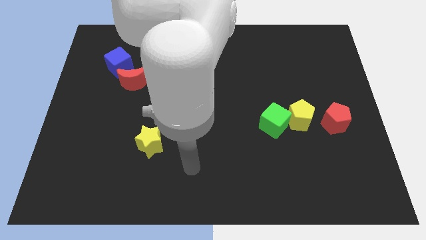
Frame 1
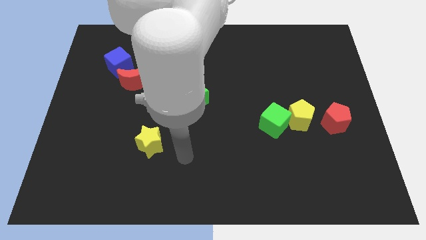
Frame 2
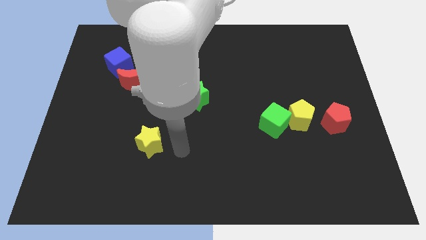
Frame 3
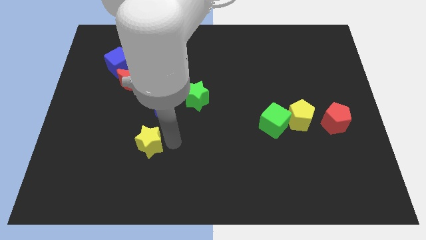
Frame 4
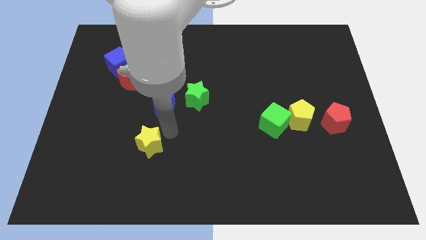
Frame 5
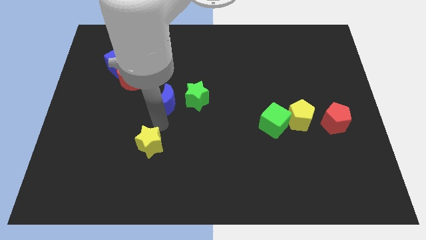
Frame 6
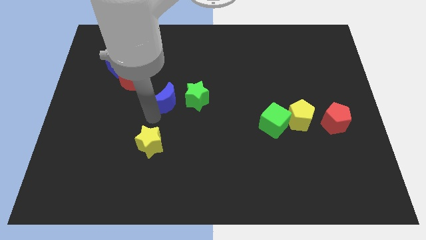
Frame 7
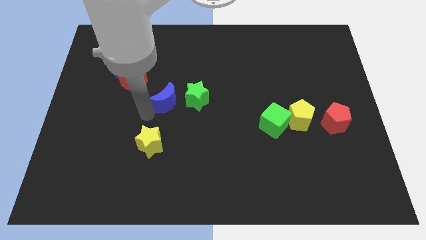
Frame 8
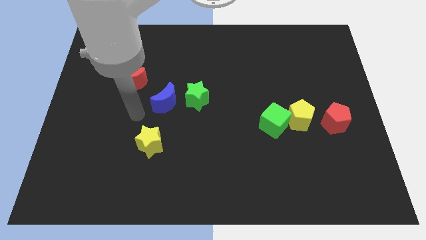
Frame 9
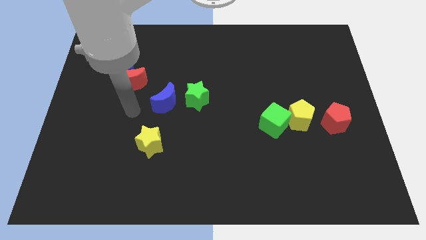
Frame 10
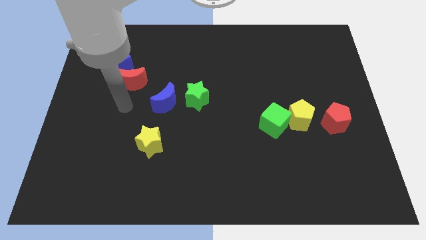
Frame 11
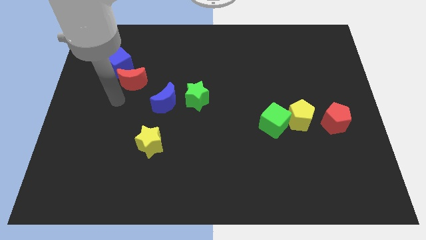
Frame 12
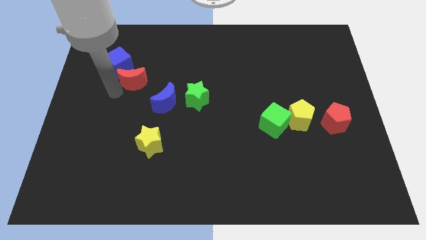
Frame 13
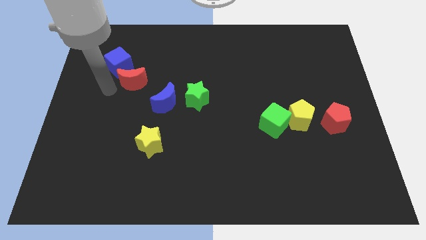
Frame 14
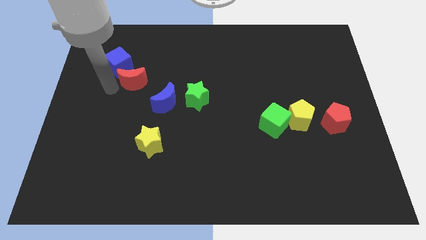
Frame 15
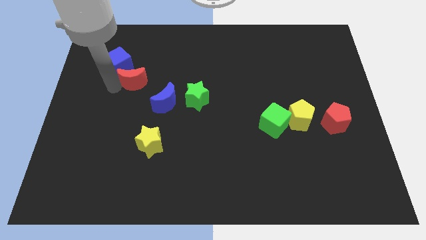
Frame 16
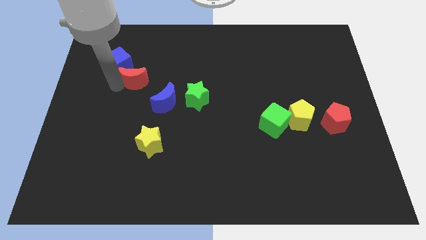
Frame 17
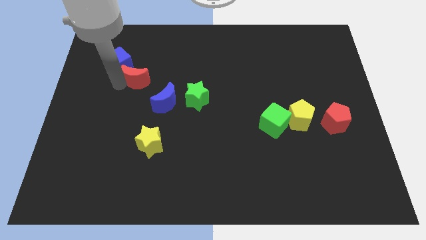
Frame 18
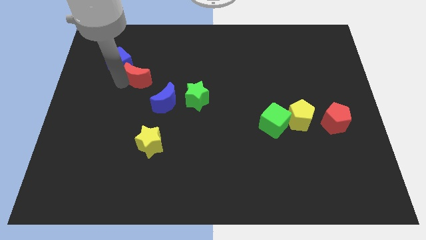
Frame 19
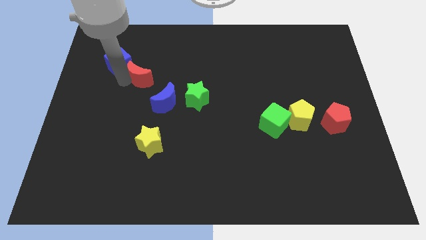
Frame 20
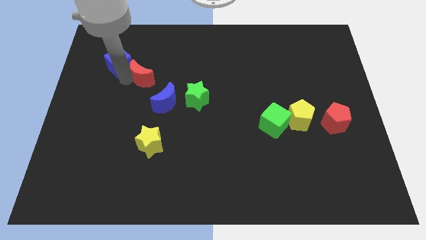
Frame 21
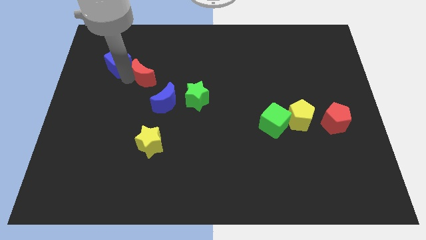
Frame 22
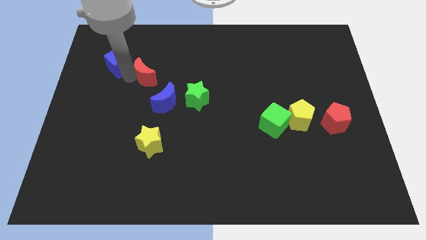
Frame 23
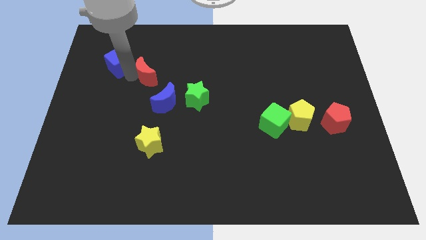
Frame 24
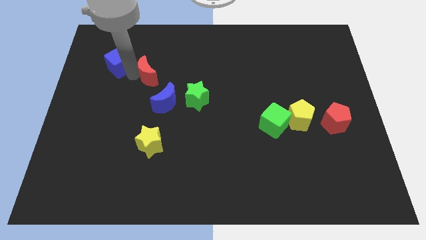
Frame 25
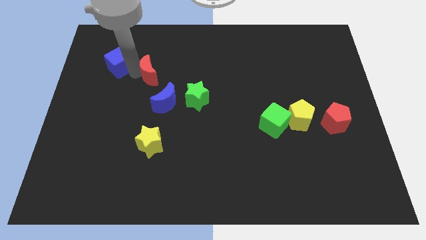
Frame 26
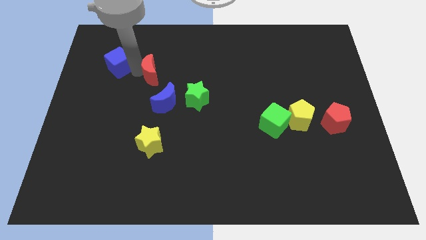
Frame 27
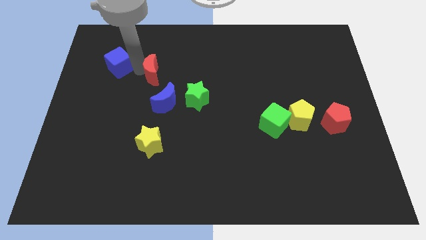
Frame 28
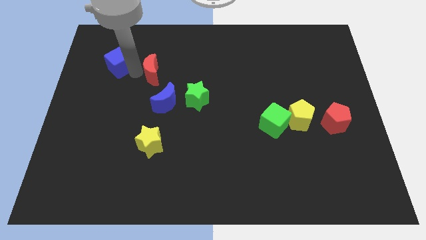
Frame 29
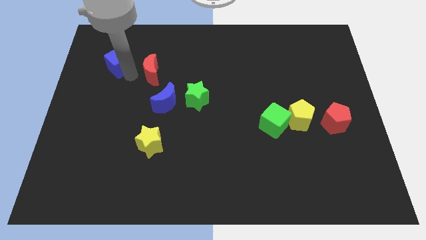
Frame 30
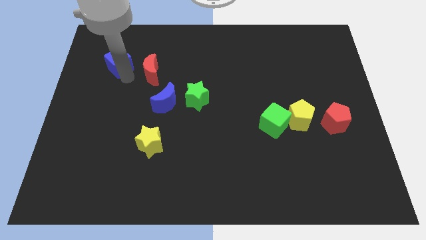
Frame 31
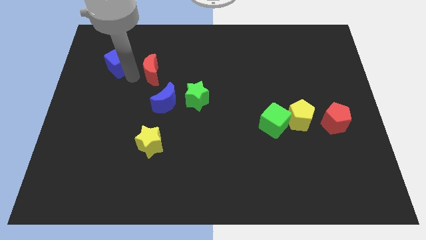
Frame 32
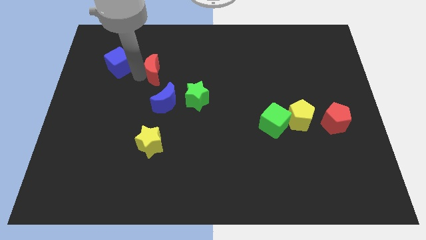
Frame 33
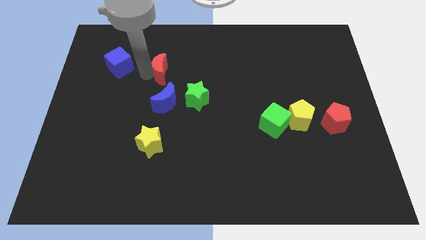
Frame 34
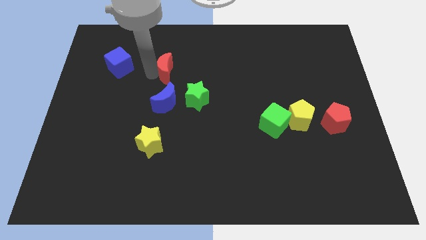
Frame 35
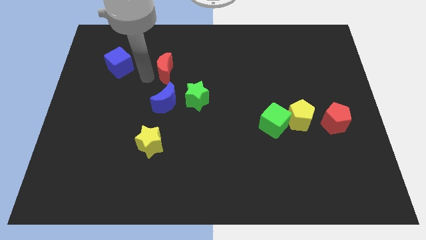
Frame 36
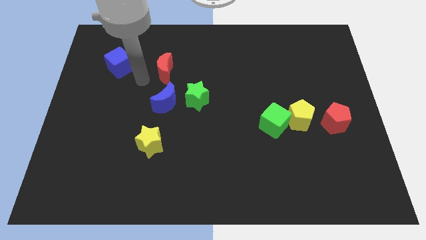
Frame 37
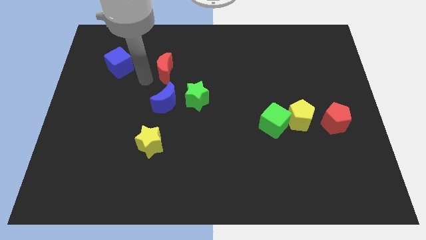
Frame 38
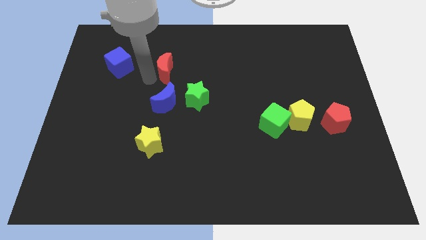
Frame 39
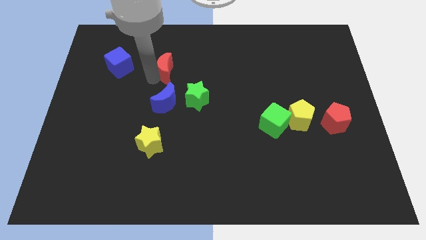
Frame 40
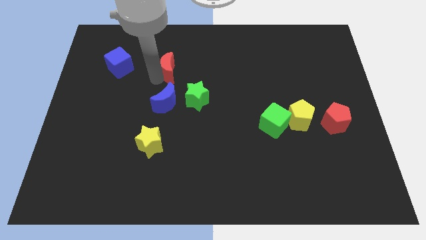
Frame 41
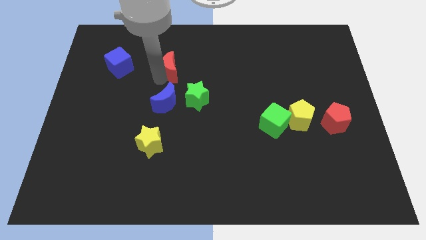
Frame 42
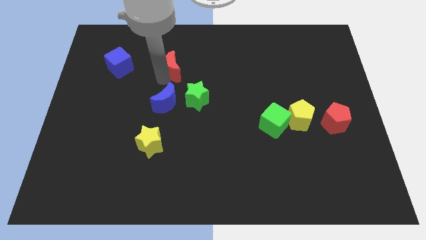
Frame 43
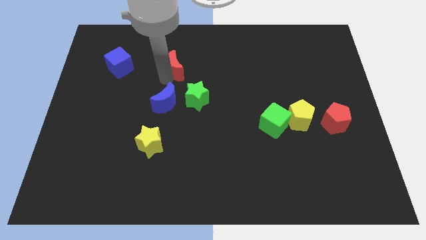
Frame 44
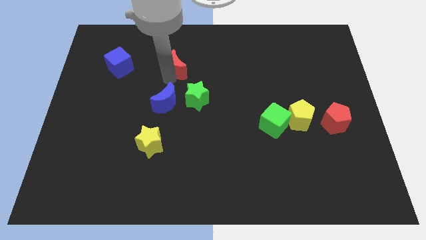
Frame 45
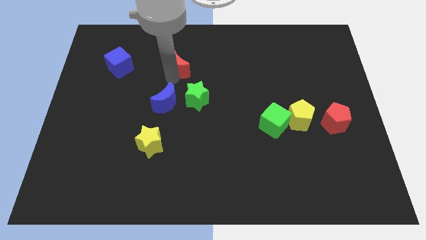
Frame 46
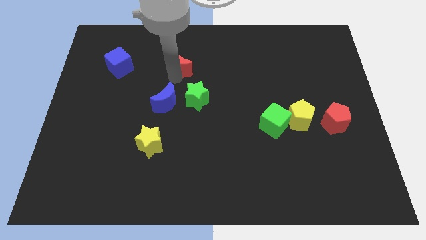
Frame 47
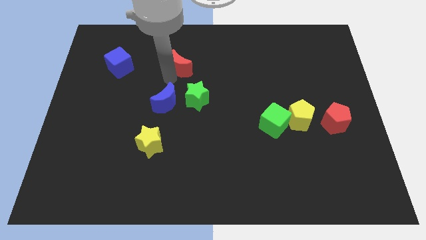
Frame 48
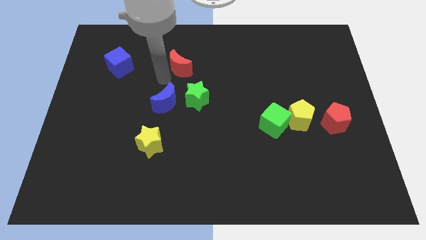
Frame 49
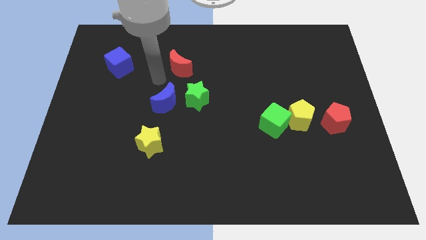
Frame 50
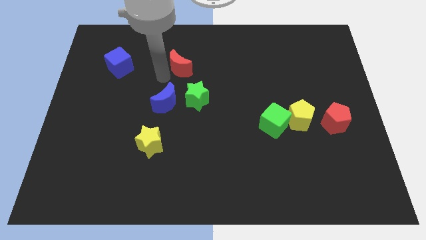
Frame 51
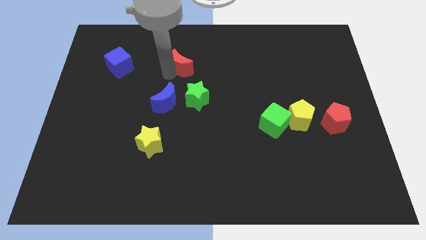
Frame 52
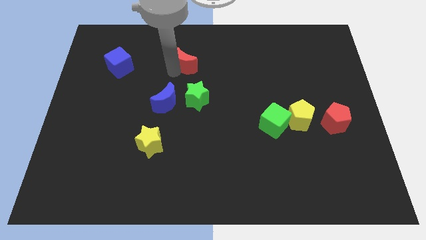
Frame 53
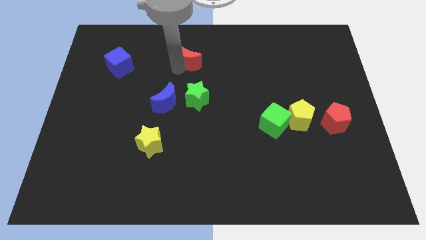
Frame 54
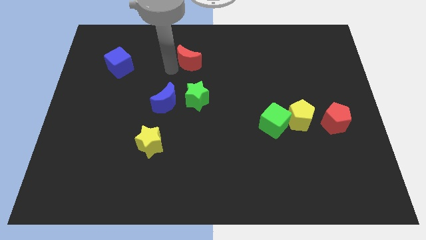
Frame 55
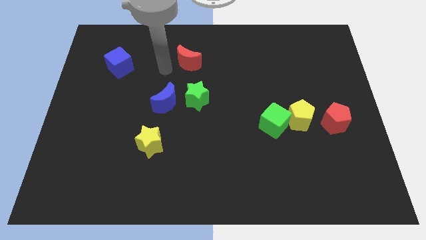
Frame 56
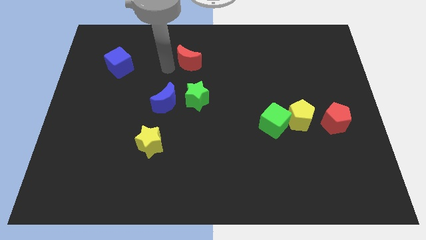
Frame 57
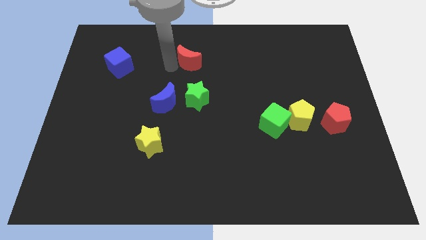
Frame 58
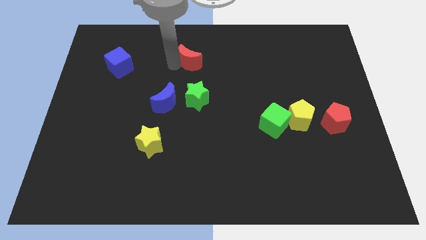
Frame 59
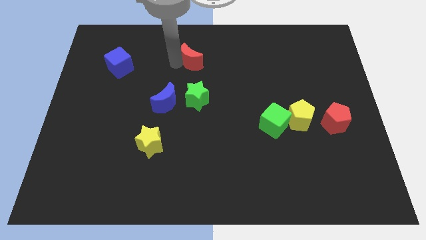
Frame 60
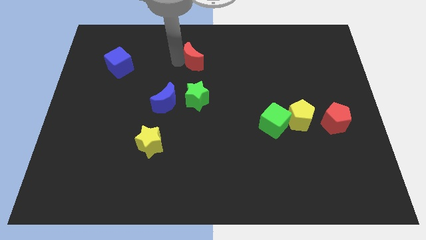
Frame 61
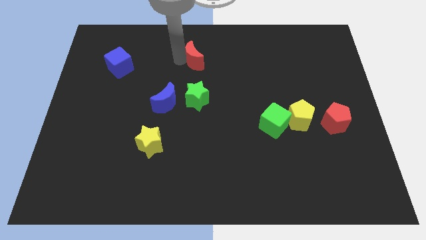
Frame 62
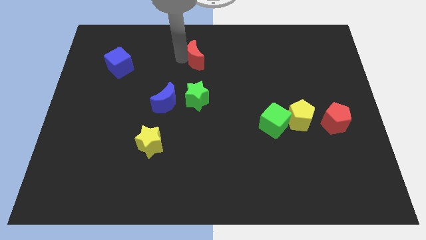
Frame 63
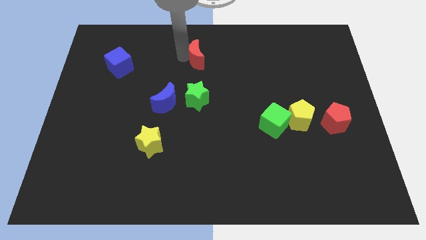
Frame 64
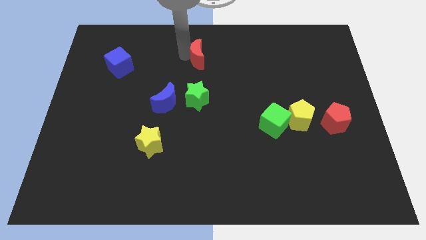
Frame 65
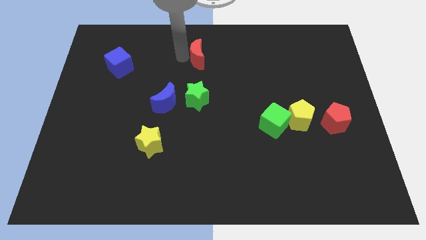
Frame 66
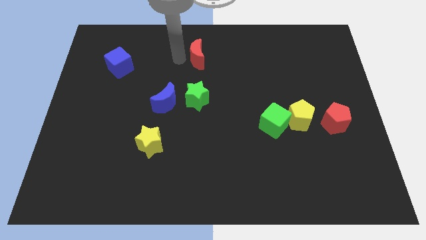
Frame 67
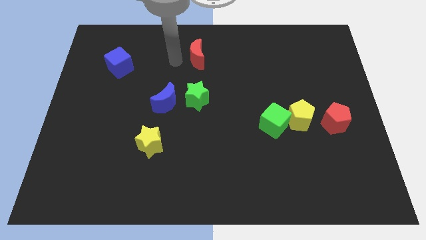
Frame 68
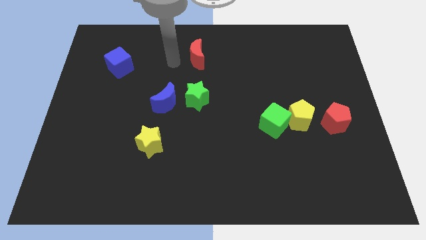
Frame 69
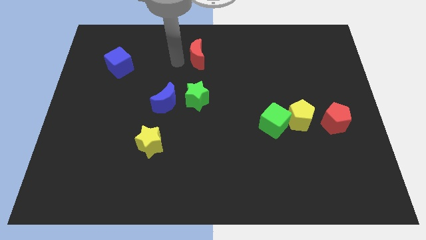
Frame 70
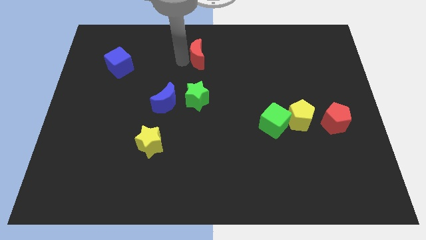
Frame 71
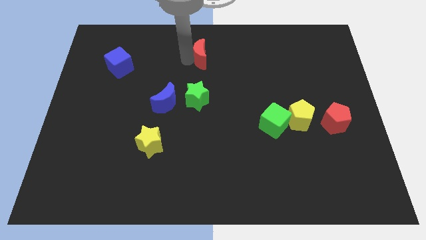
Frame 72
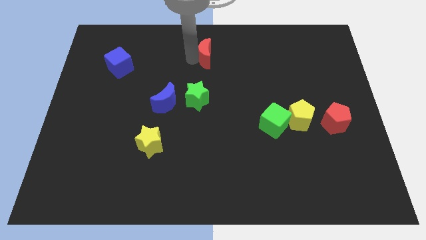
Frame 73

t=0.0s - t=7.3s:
slide the red moon to the top
